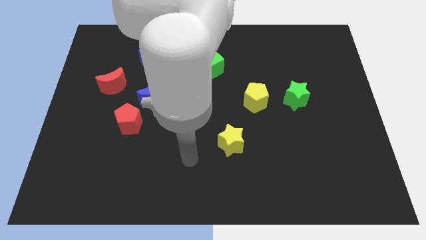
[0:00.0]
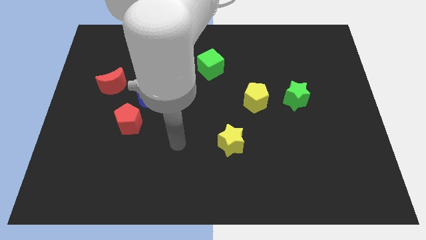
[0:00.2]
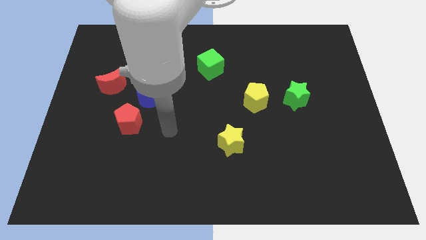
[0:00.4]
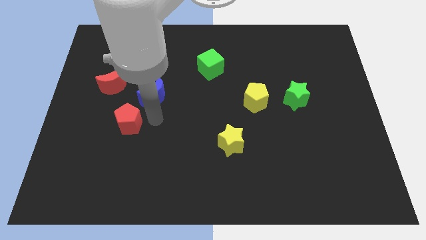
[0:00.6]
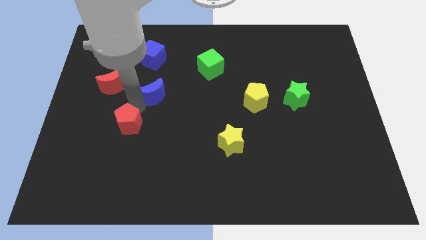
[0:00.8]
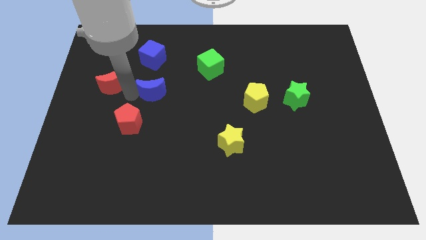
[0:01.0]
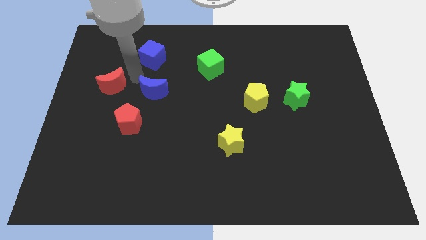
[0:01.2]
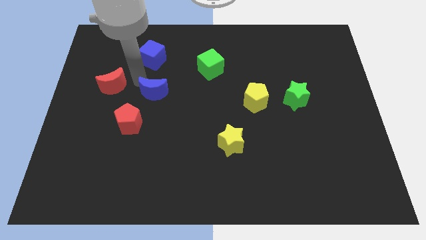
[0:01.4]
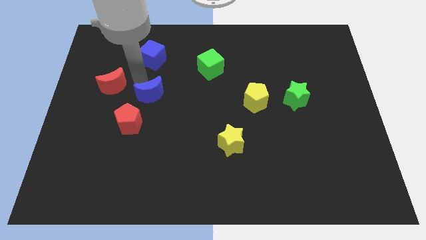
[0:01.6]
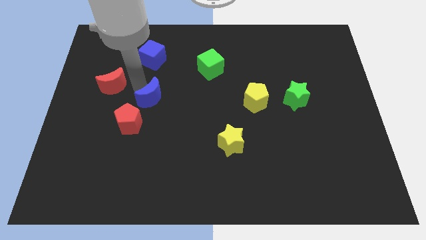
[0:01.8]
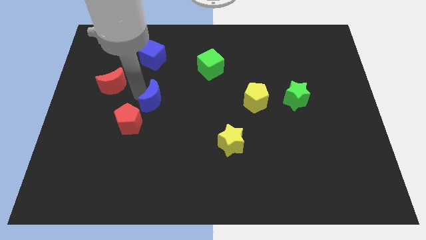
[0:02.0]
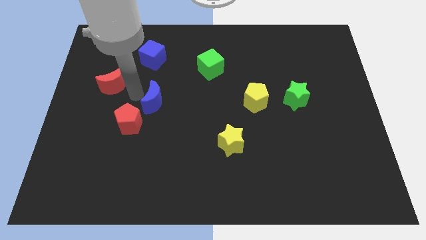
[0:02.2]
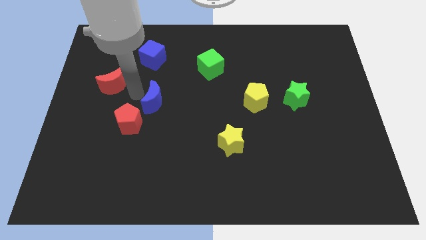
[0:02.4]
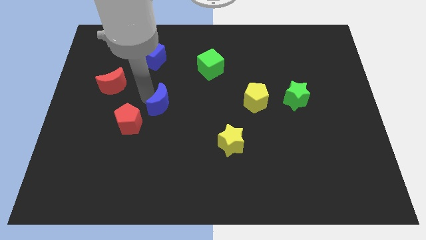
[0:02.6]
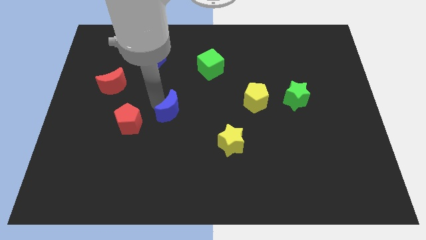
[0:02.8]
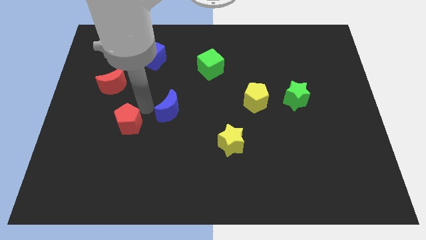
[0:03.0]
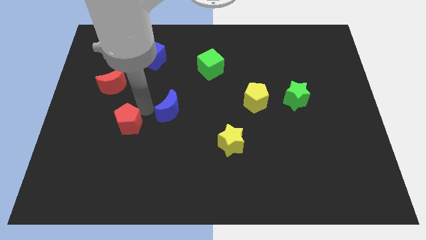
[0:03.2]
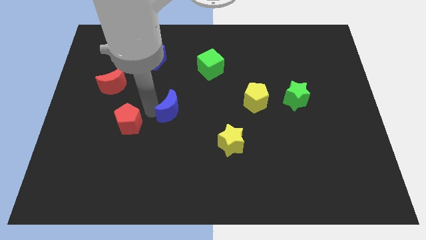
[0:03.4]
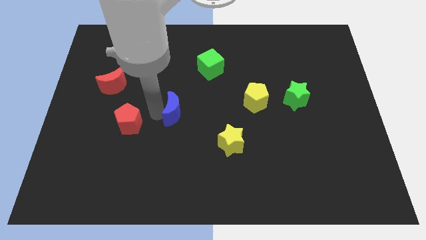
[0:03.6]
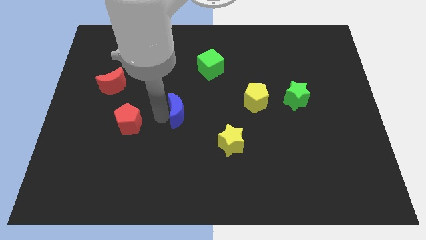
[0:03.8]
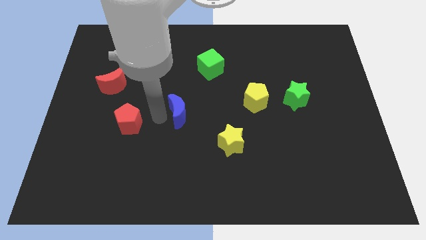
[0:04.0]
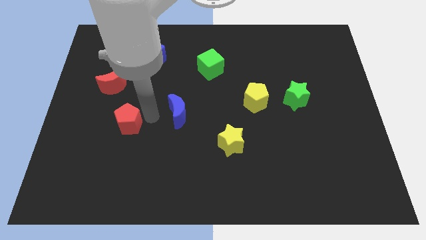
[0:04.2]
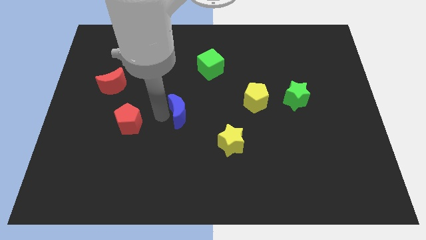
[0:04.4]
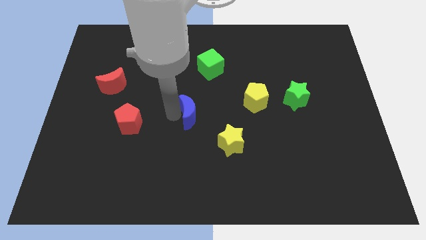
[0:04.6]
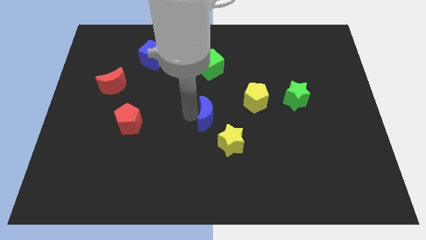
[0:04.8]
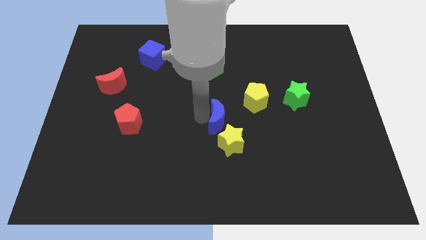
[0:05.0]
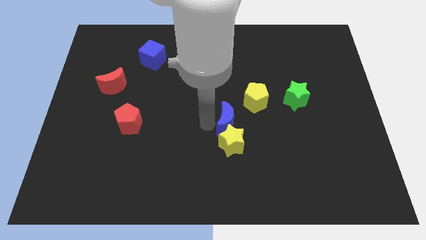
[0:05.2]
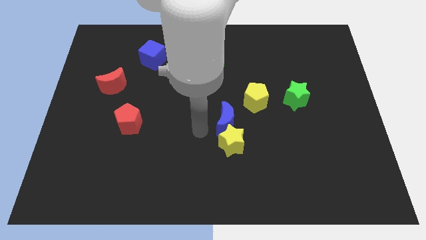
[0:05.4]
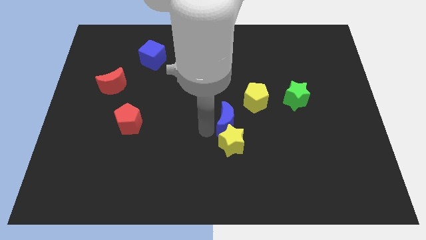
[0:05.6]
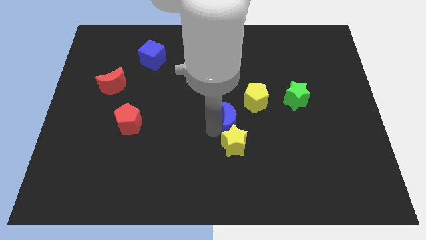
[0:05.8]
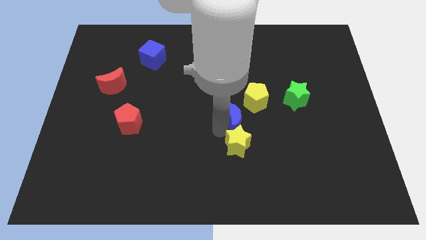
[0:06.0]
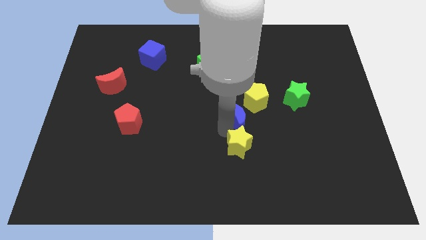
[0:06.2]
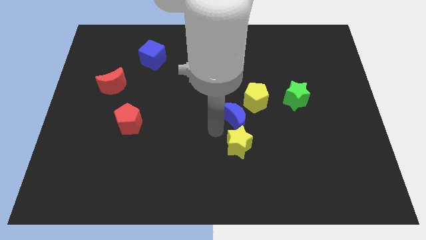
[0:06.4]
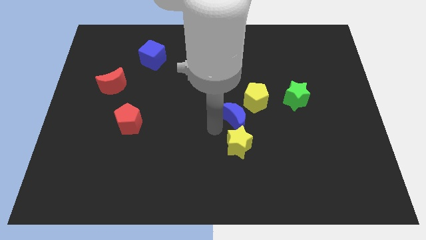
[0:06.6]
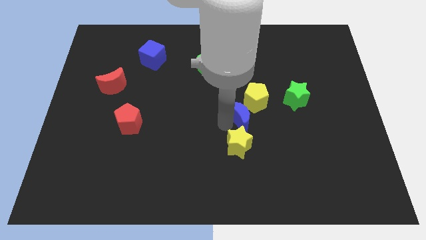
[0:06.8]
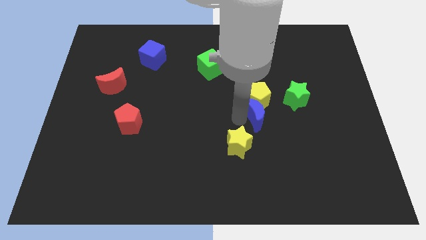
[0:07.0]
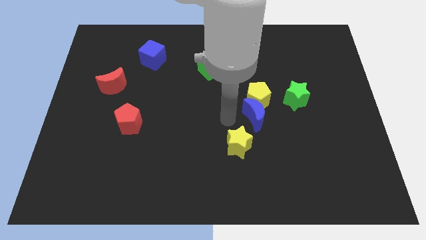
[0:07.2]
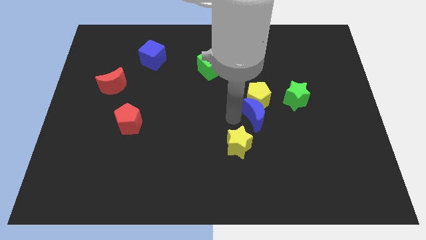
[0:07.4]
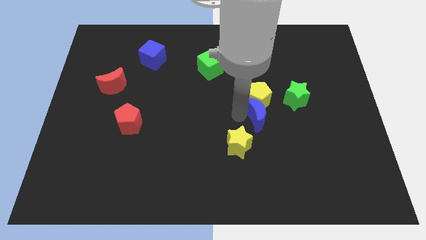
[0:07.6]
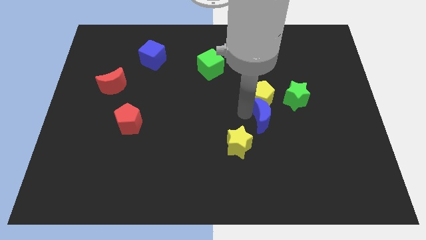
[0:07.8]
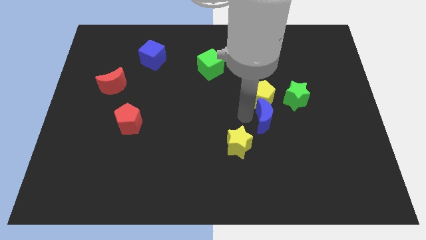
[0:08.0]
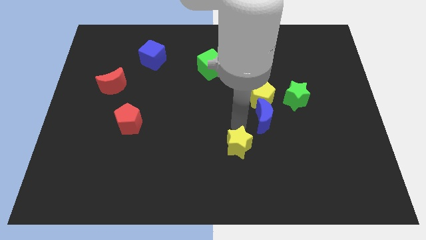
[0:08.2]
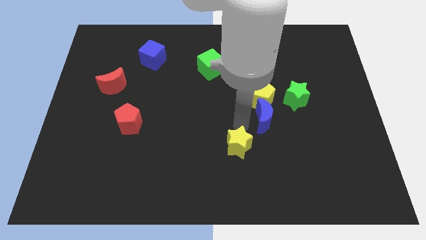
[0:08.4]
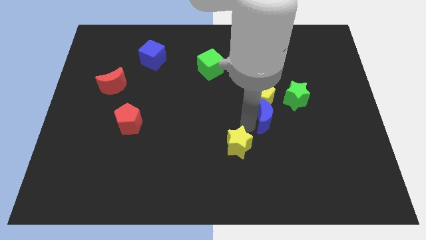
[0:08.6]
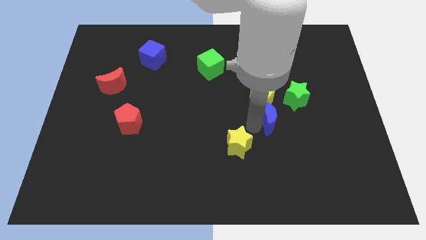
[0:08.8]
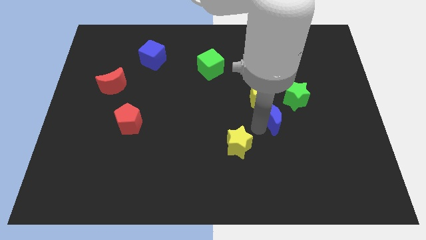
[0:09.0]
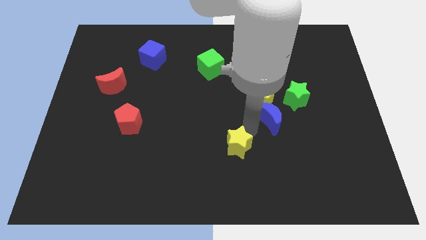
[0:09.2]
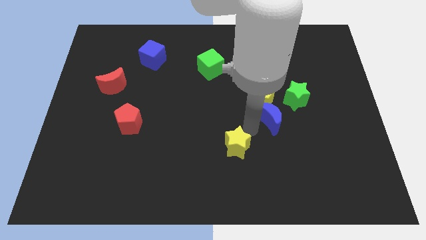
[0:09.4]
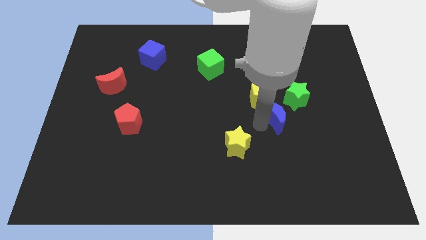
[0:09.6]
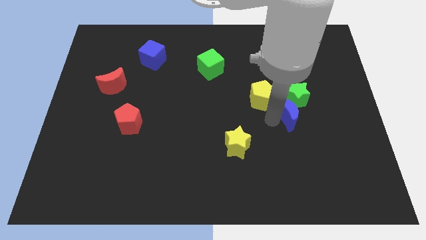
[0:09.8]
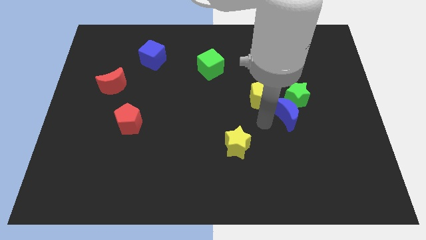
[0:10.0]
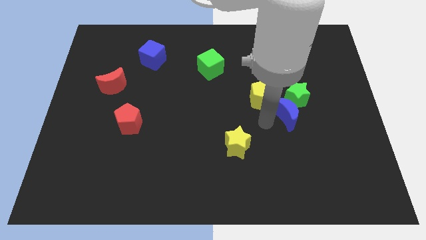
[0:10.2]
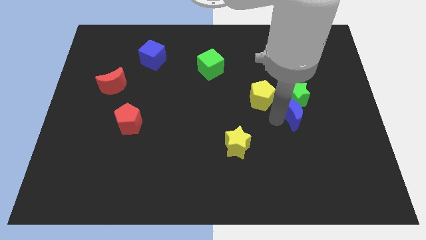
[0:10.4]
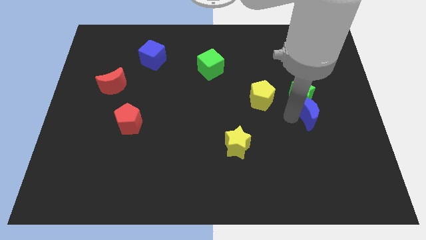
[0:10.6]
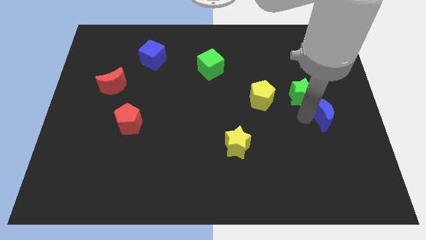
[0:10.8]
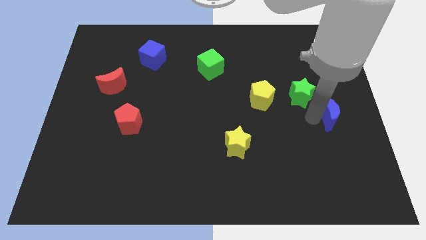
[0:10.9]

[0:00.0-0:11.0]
move the blue moon to the center right

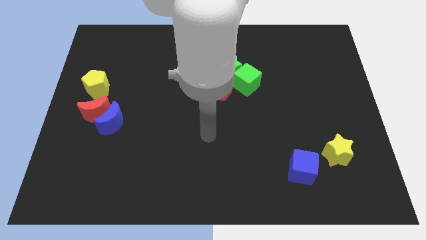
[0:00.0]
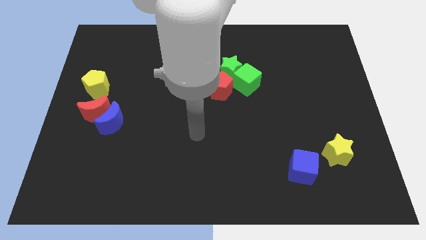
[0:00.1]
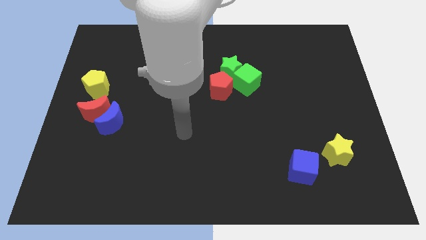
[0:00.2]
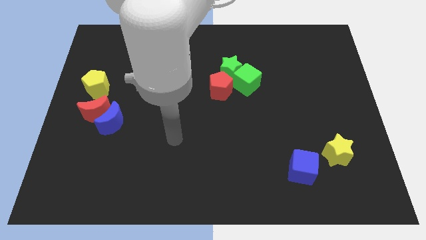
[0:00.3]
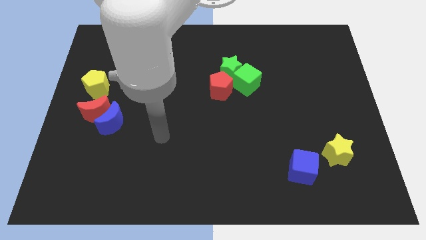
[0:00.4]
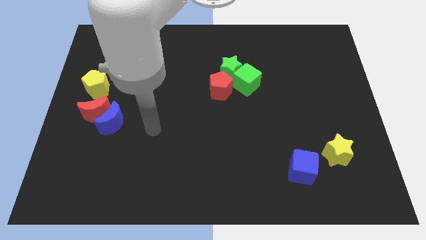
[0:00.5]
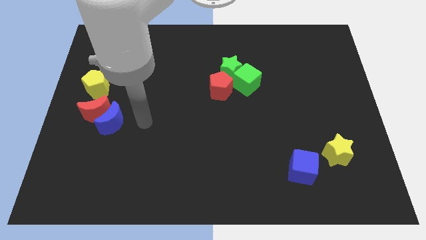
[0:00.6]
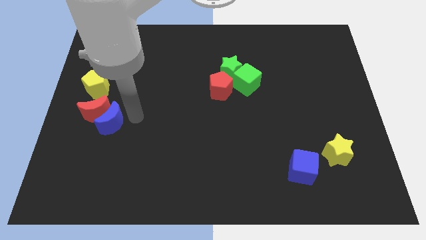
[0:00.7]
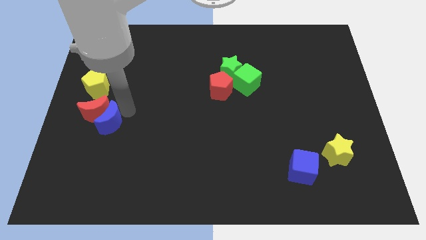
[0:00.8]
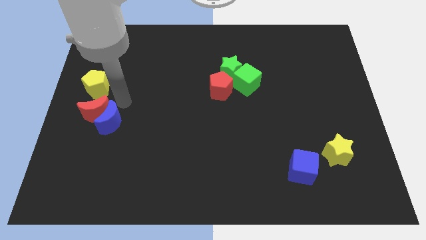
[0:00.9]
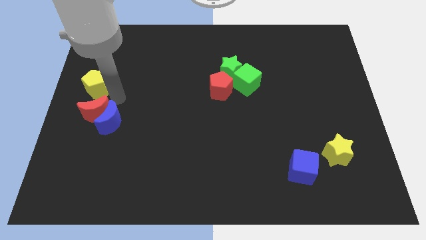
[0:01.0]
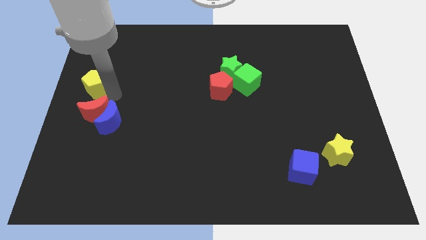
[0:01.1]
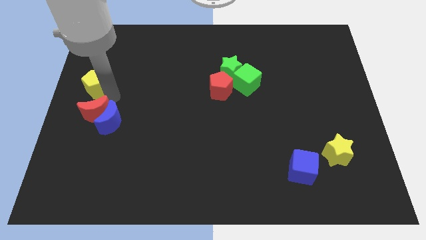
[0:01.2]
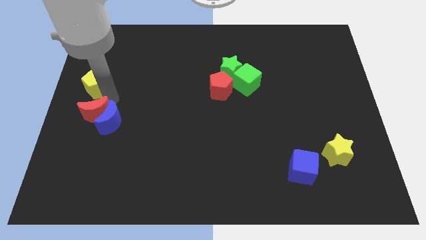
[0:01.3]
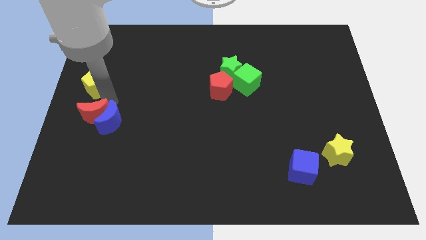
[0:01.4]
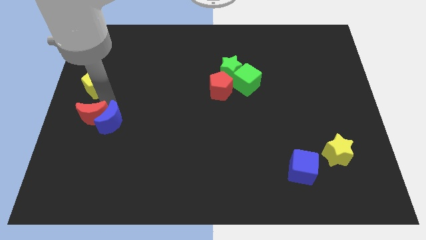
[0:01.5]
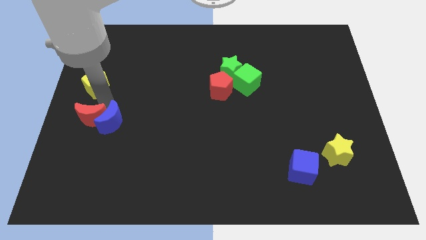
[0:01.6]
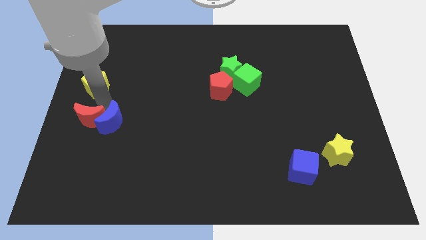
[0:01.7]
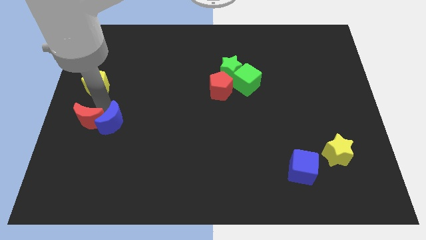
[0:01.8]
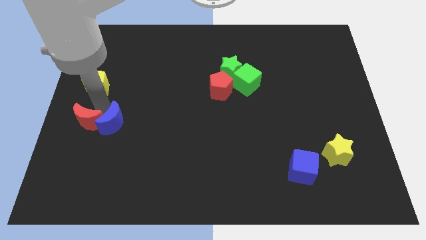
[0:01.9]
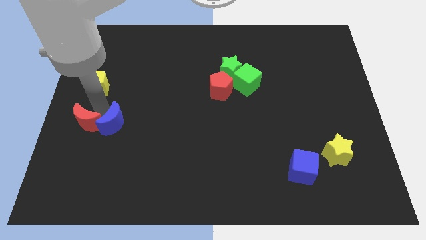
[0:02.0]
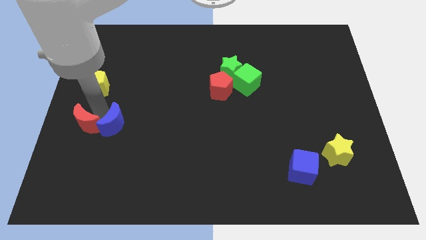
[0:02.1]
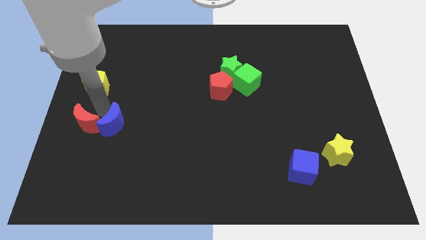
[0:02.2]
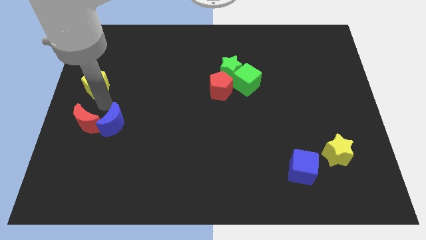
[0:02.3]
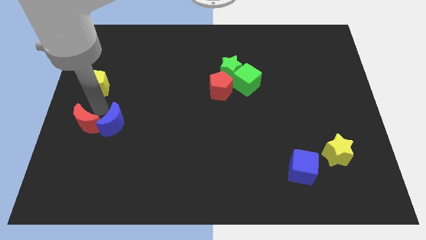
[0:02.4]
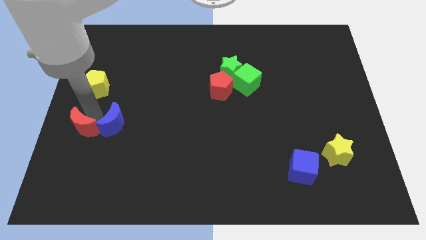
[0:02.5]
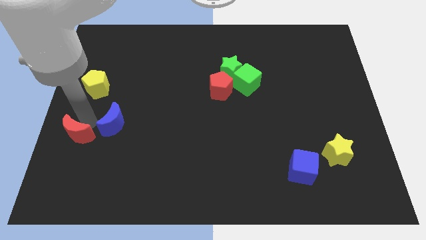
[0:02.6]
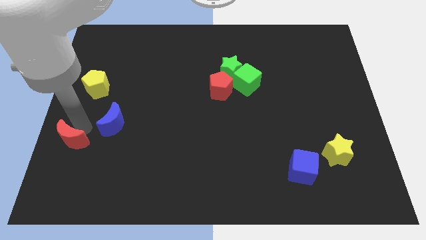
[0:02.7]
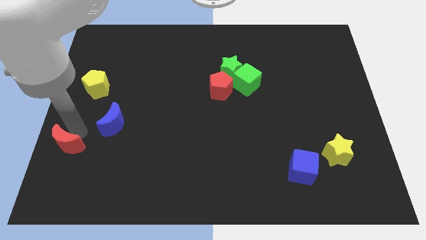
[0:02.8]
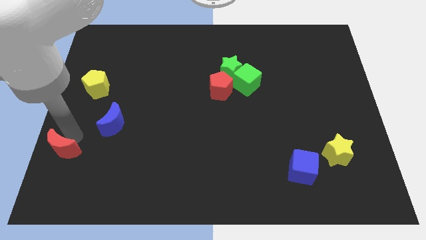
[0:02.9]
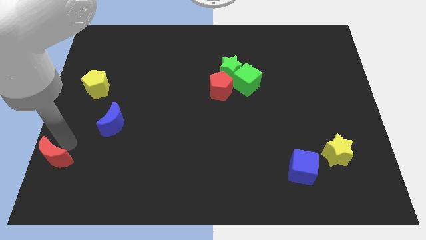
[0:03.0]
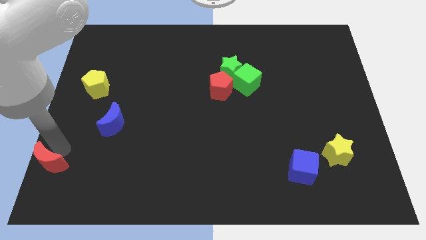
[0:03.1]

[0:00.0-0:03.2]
slide the red moon to the bottom left
